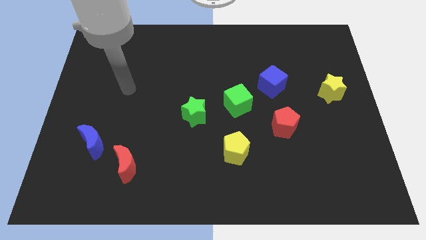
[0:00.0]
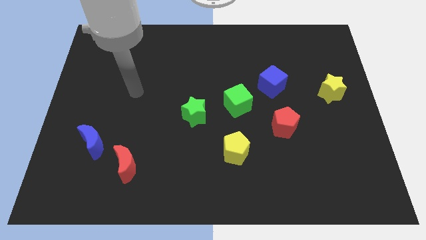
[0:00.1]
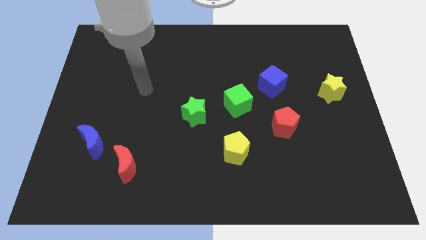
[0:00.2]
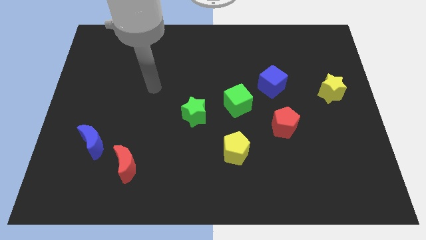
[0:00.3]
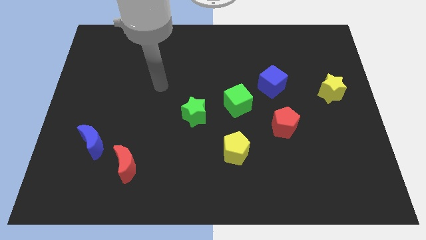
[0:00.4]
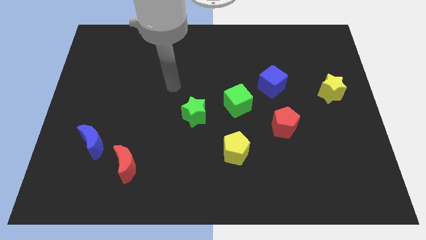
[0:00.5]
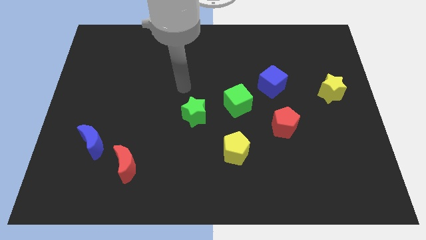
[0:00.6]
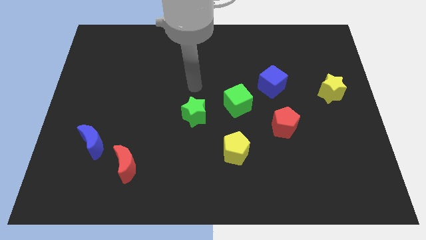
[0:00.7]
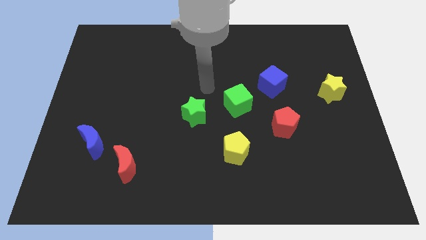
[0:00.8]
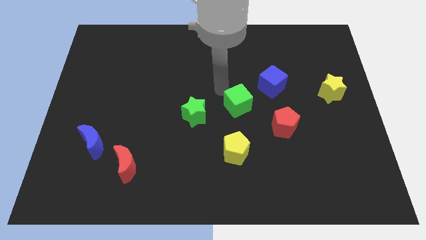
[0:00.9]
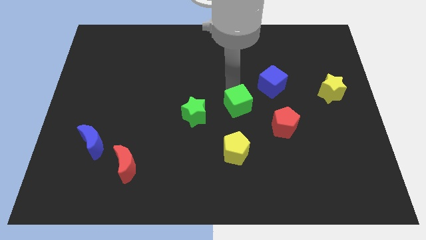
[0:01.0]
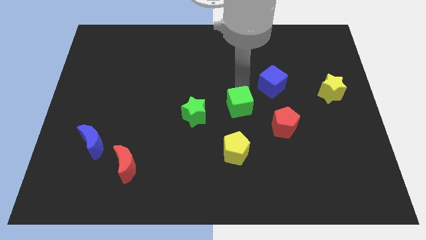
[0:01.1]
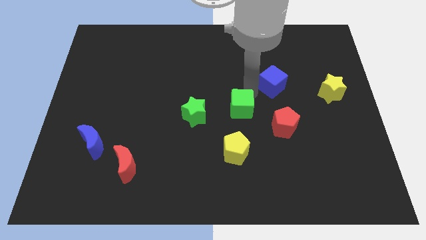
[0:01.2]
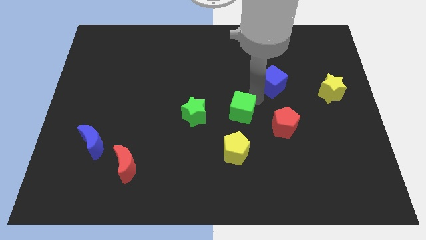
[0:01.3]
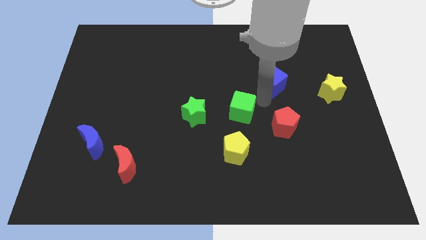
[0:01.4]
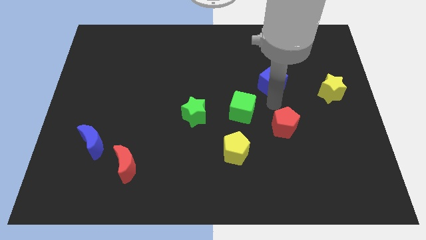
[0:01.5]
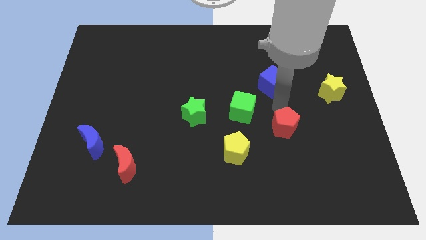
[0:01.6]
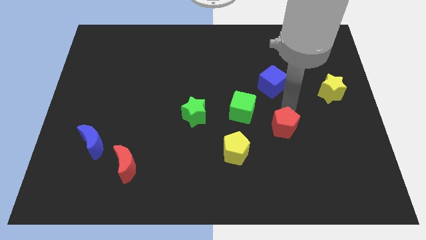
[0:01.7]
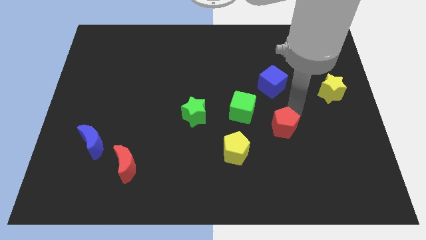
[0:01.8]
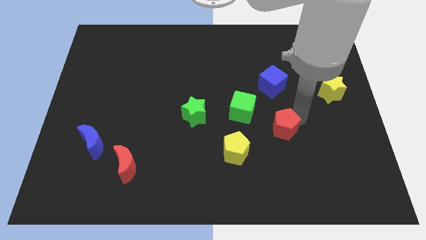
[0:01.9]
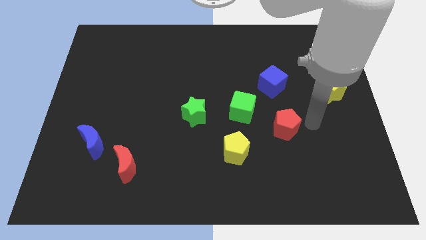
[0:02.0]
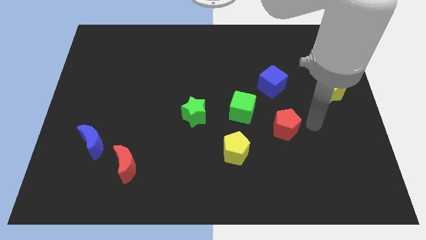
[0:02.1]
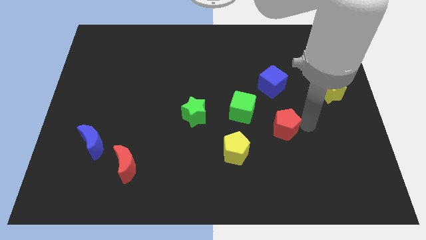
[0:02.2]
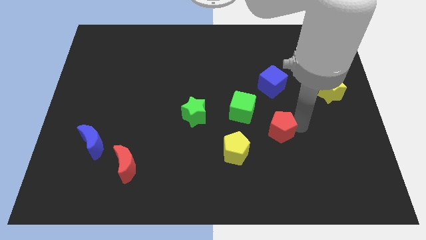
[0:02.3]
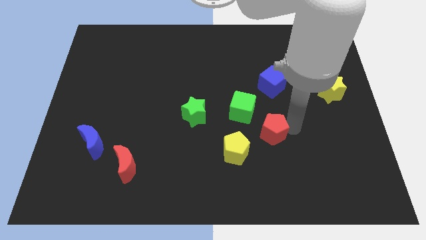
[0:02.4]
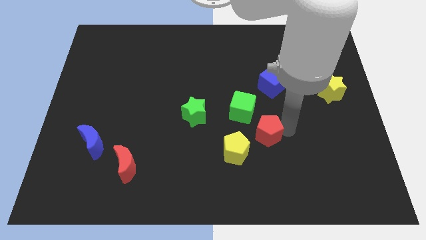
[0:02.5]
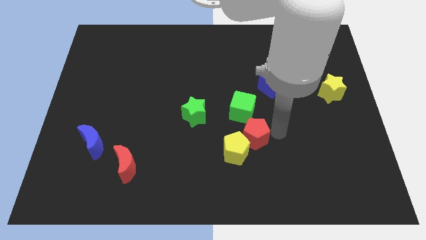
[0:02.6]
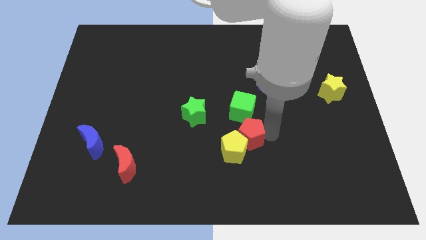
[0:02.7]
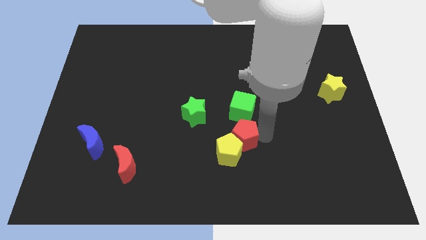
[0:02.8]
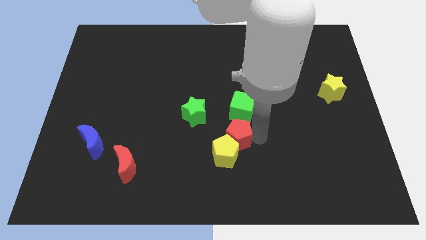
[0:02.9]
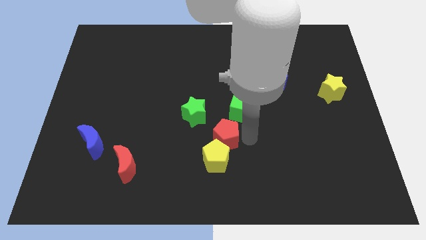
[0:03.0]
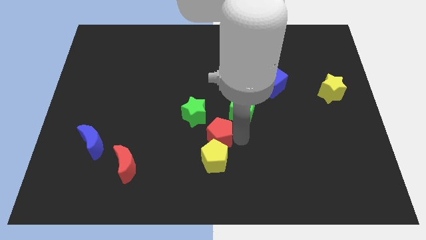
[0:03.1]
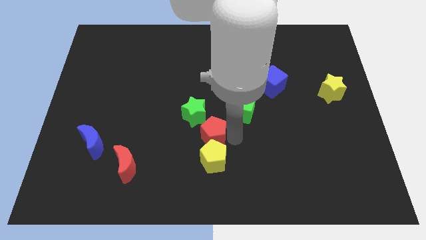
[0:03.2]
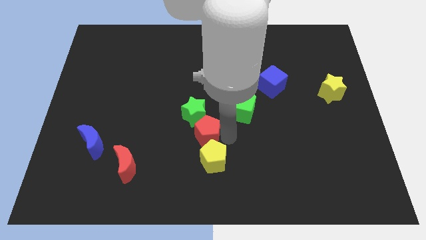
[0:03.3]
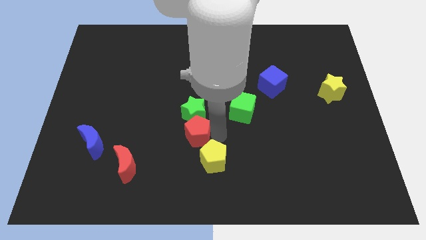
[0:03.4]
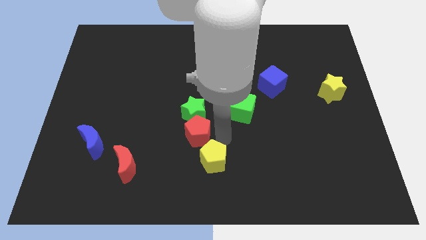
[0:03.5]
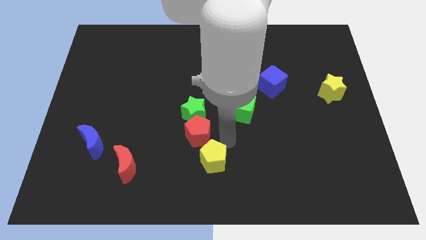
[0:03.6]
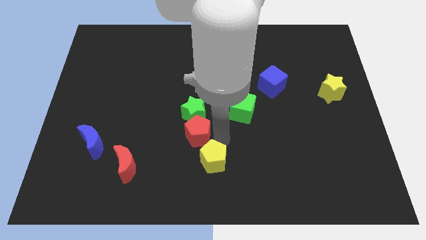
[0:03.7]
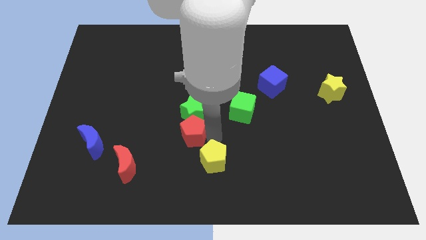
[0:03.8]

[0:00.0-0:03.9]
push the red pentagon left

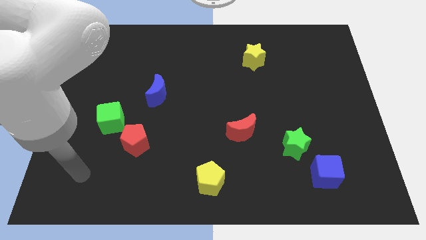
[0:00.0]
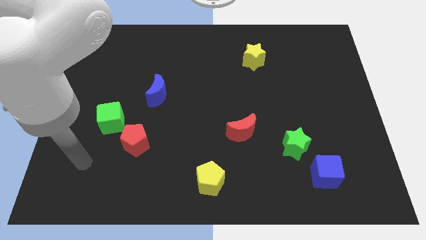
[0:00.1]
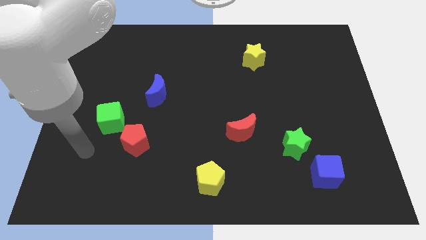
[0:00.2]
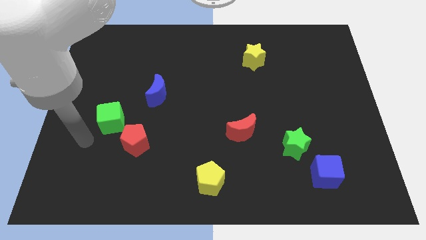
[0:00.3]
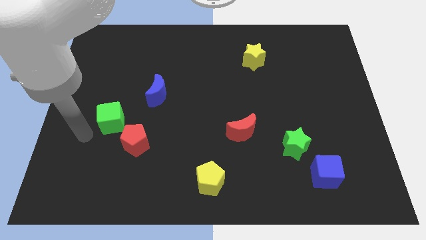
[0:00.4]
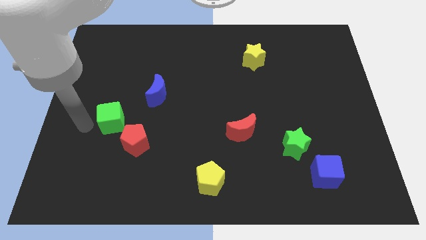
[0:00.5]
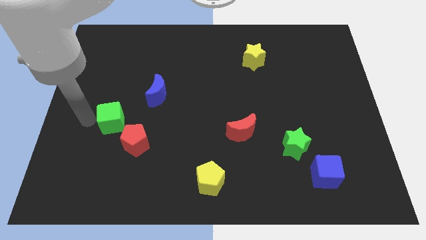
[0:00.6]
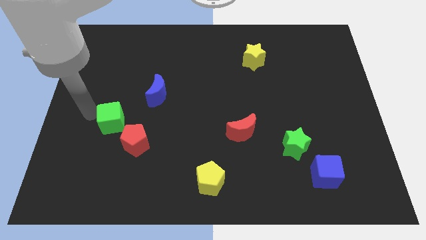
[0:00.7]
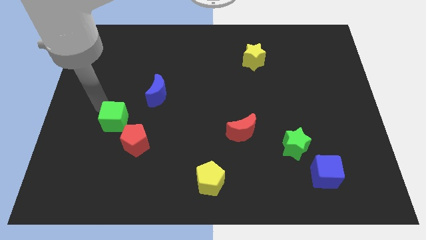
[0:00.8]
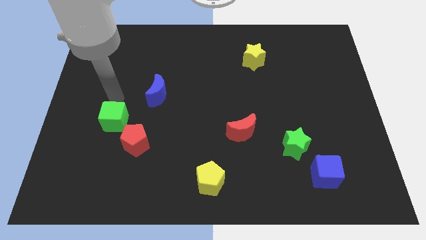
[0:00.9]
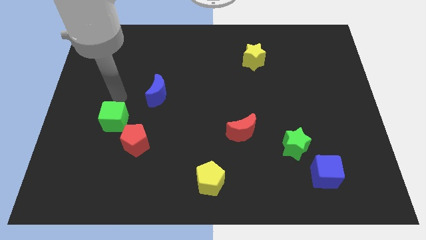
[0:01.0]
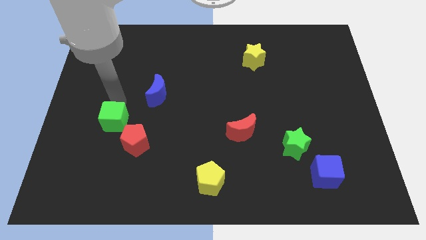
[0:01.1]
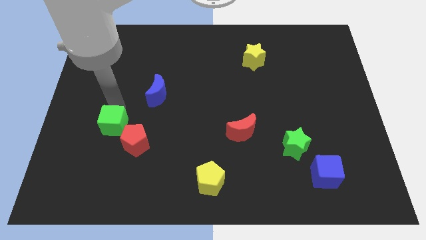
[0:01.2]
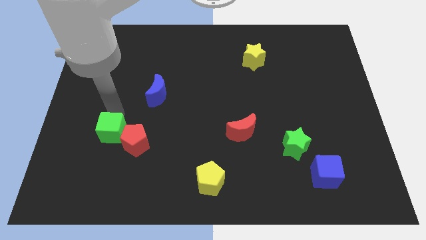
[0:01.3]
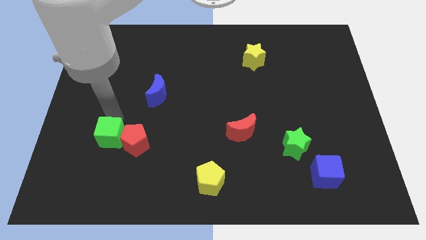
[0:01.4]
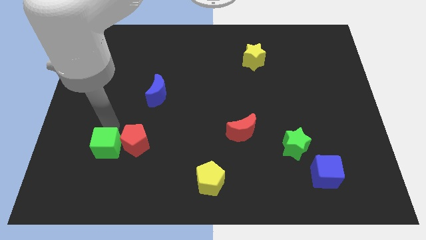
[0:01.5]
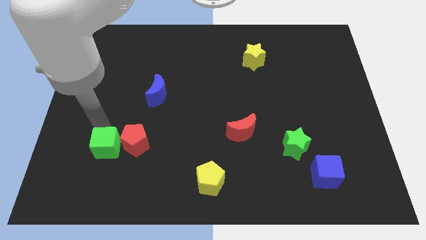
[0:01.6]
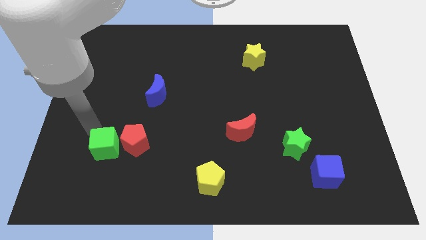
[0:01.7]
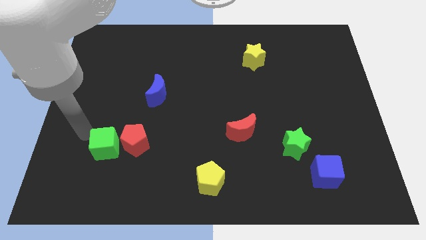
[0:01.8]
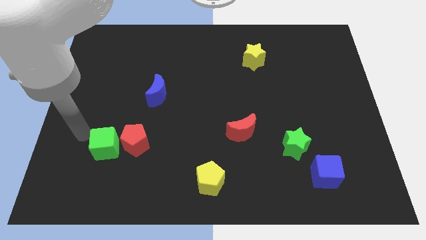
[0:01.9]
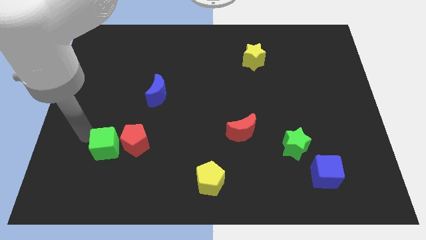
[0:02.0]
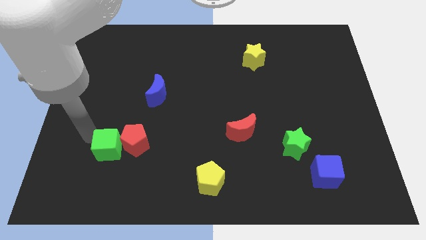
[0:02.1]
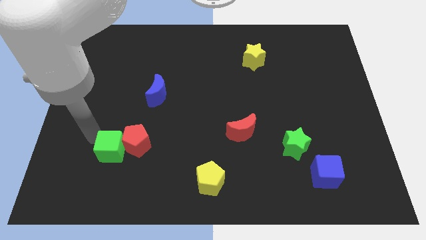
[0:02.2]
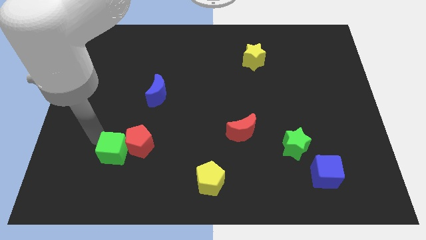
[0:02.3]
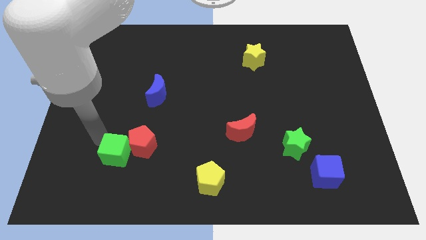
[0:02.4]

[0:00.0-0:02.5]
slightly slide the green cube downwards and to the right diagonally

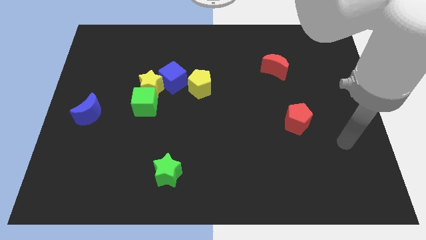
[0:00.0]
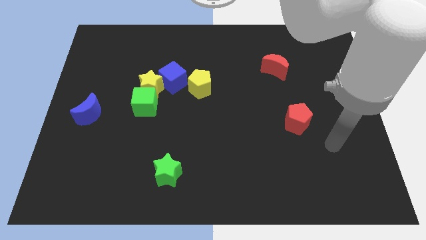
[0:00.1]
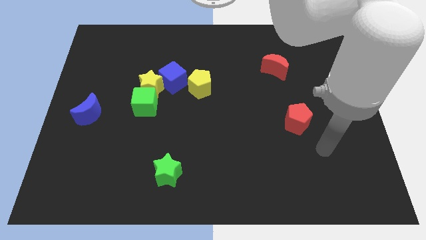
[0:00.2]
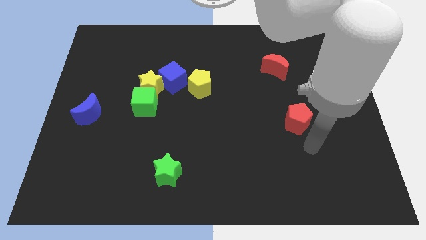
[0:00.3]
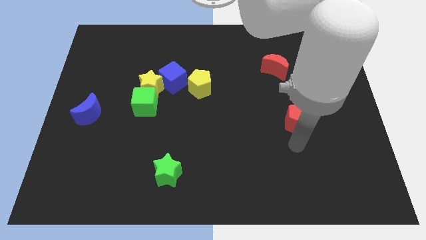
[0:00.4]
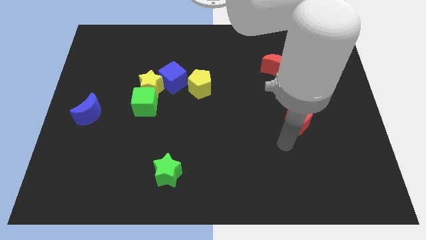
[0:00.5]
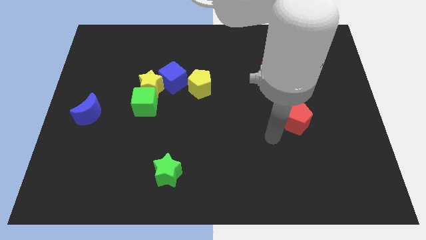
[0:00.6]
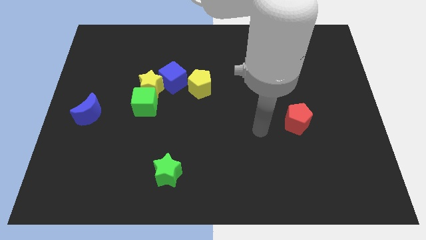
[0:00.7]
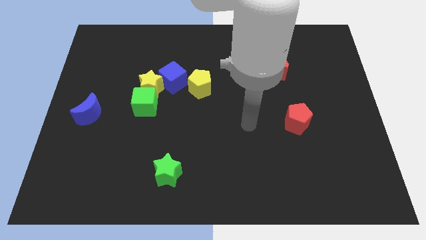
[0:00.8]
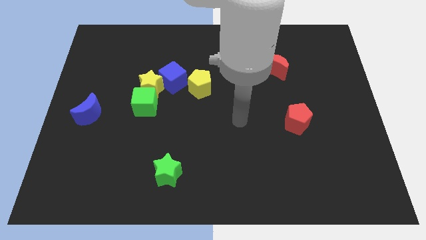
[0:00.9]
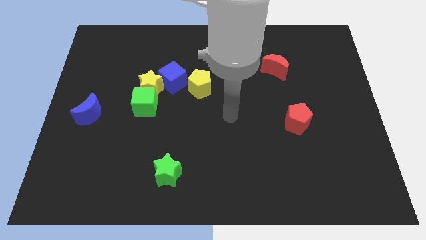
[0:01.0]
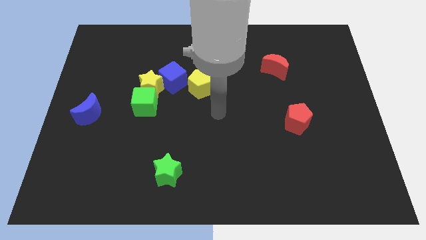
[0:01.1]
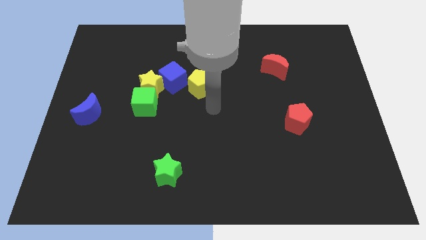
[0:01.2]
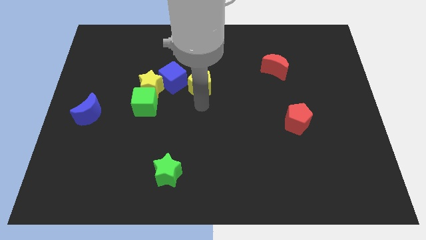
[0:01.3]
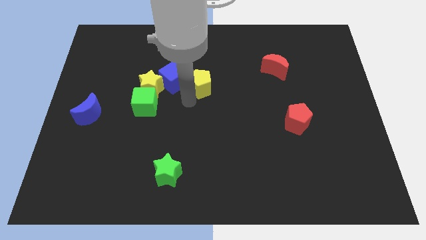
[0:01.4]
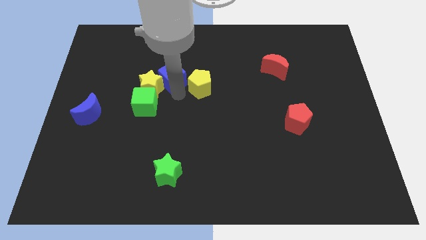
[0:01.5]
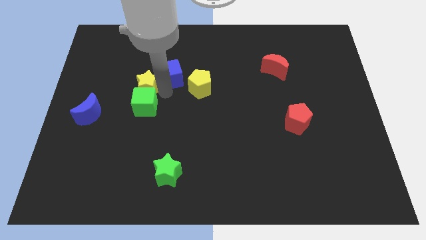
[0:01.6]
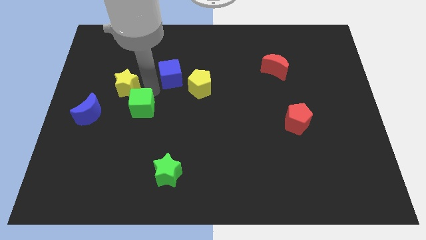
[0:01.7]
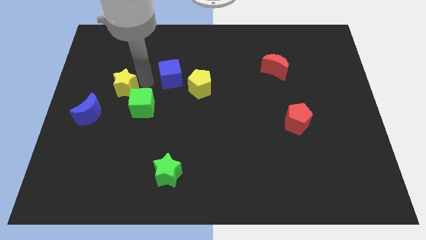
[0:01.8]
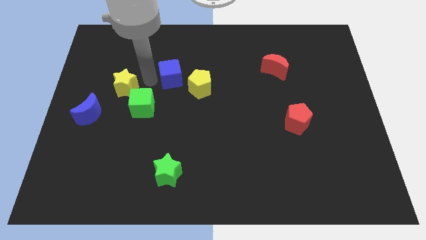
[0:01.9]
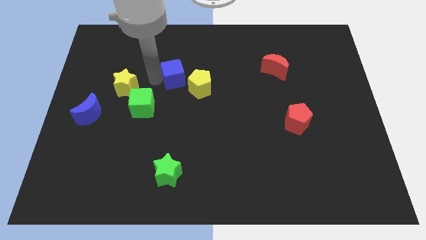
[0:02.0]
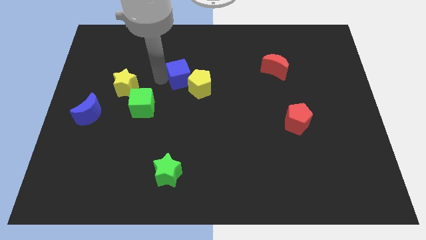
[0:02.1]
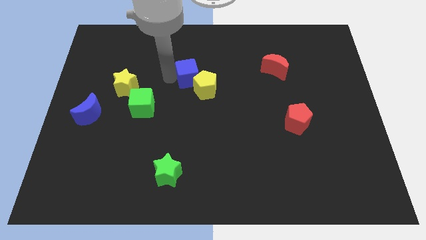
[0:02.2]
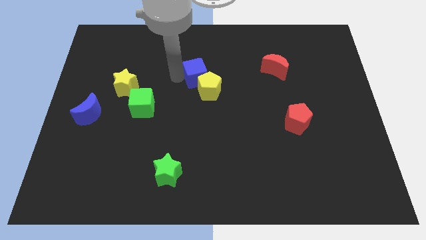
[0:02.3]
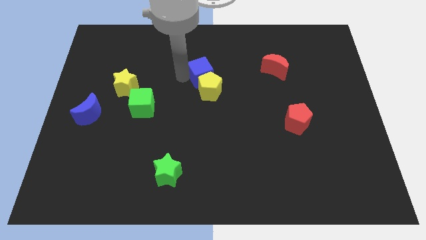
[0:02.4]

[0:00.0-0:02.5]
slightly slide the blue cube to the right
